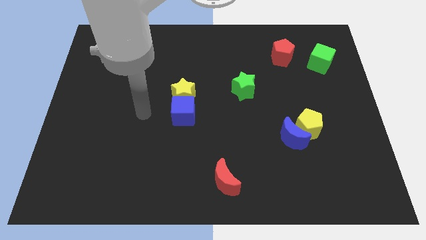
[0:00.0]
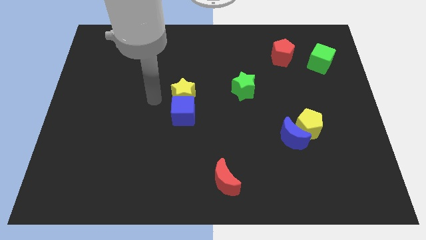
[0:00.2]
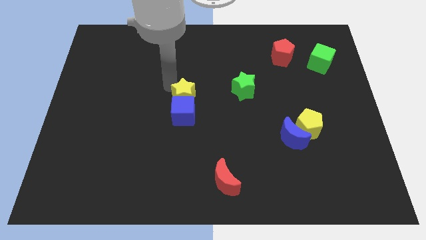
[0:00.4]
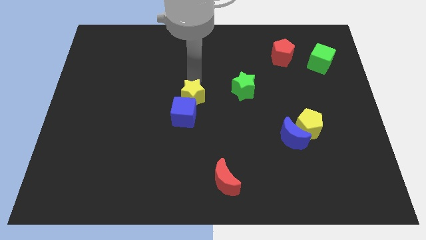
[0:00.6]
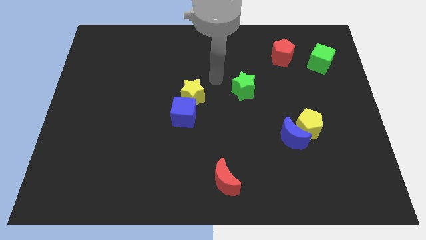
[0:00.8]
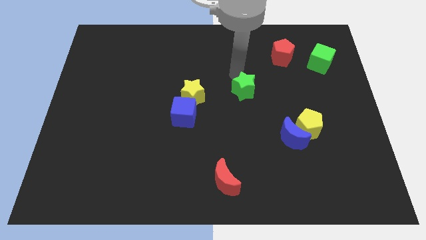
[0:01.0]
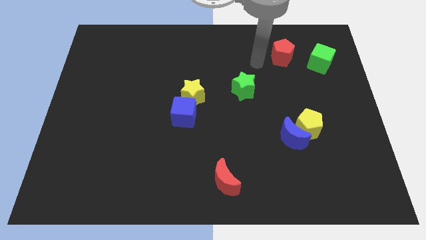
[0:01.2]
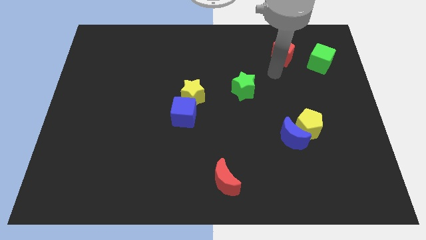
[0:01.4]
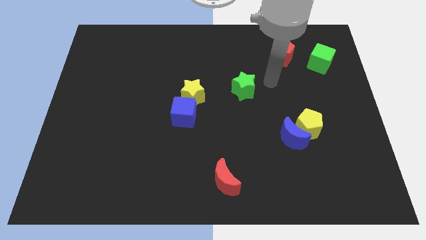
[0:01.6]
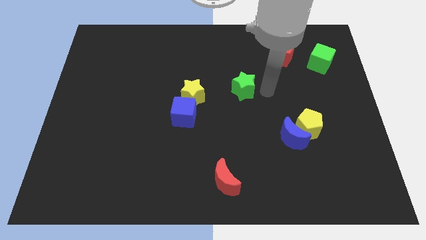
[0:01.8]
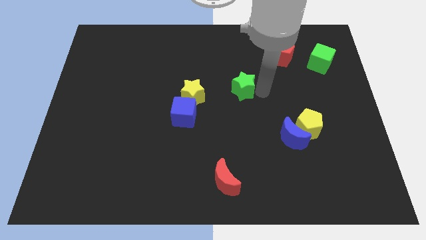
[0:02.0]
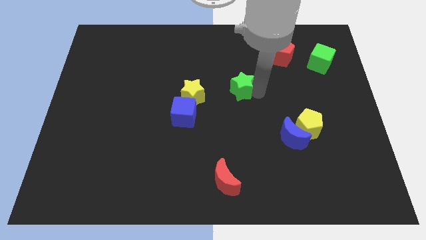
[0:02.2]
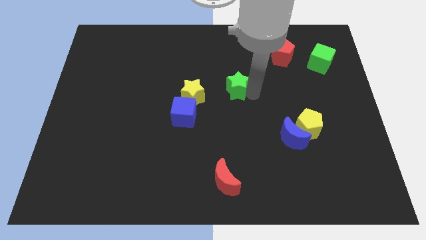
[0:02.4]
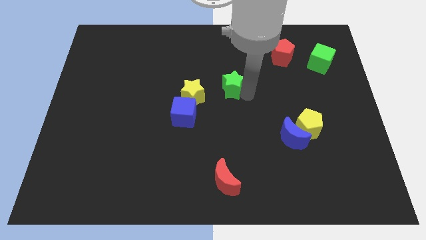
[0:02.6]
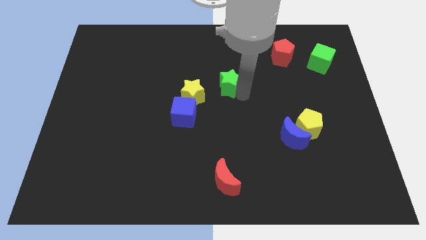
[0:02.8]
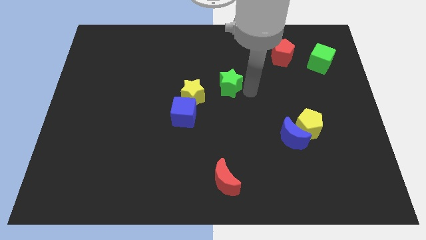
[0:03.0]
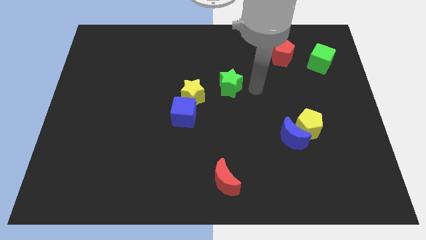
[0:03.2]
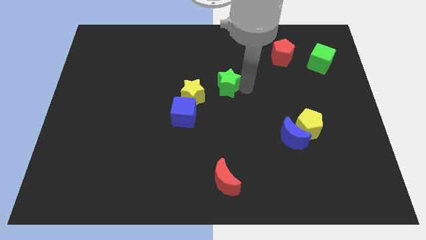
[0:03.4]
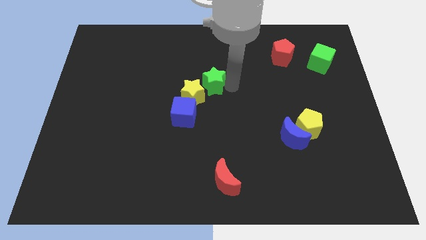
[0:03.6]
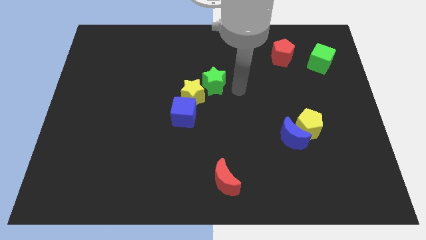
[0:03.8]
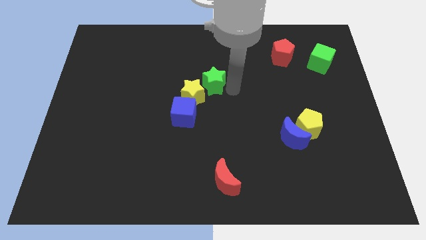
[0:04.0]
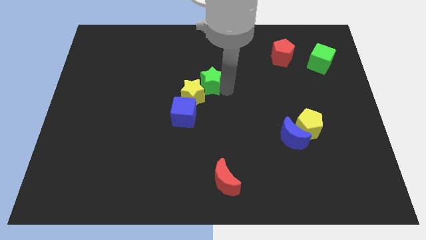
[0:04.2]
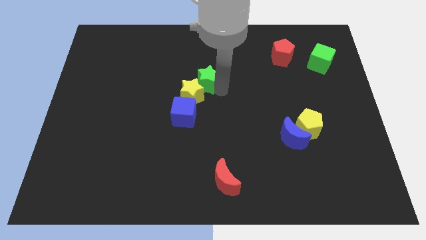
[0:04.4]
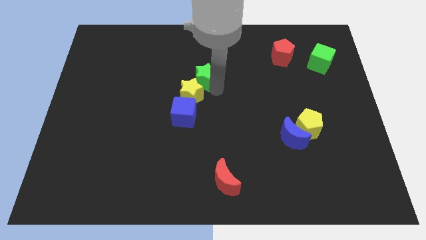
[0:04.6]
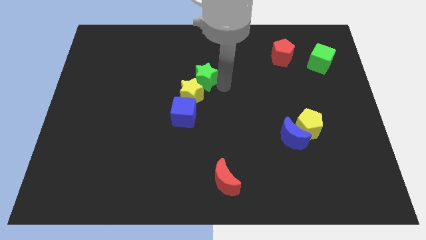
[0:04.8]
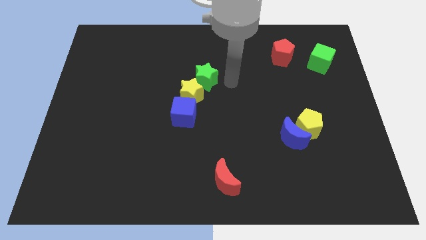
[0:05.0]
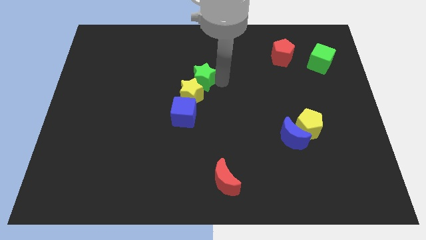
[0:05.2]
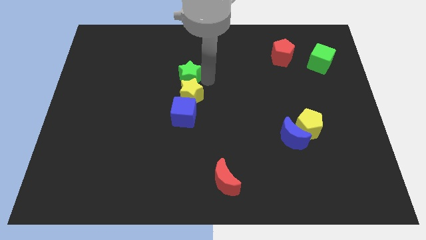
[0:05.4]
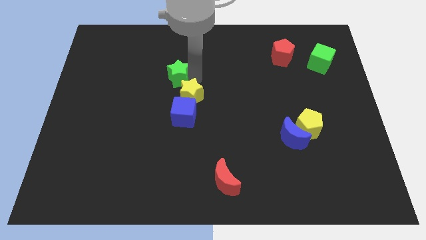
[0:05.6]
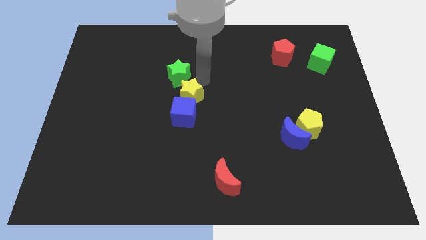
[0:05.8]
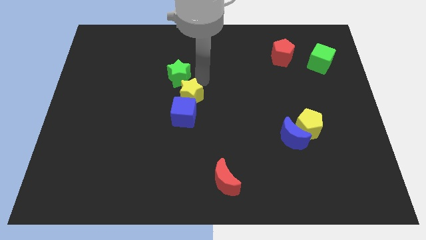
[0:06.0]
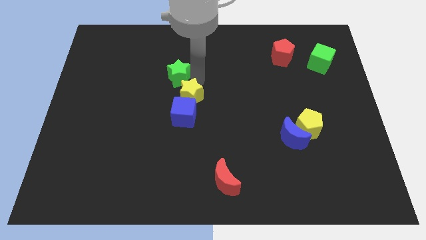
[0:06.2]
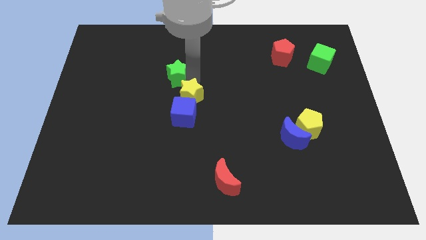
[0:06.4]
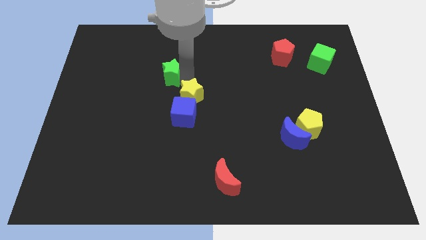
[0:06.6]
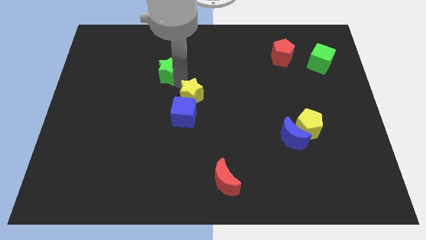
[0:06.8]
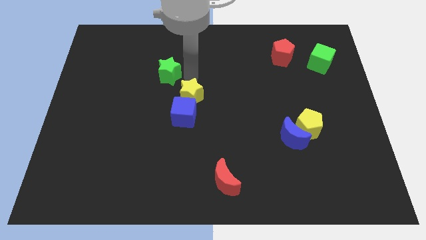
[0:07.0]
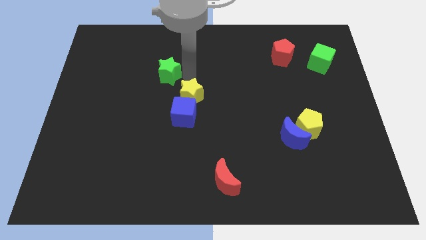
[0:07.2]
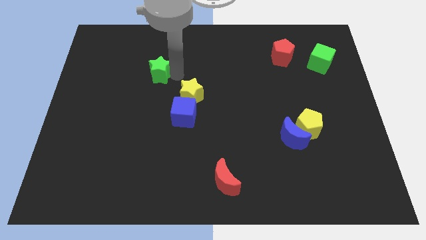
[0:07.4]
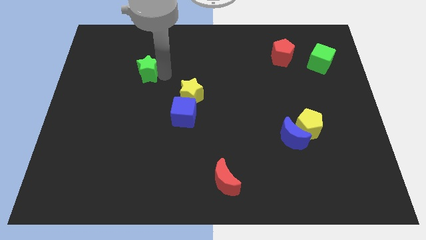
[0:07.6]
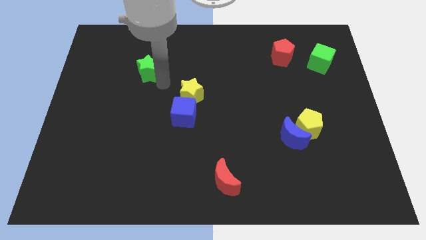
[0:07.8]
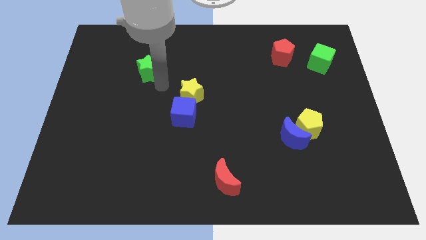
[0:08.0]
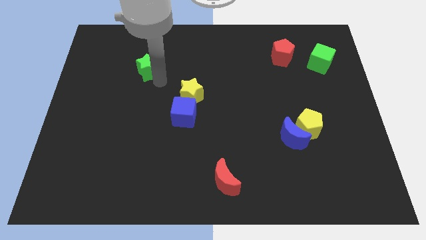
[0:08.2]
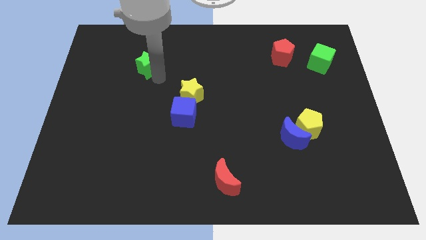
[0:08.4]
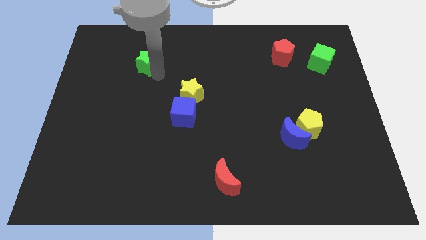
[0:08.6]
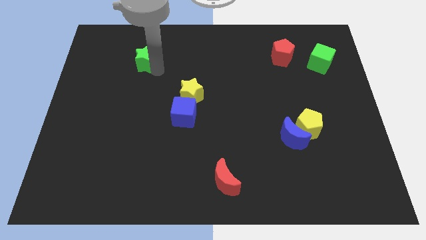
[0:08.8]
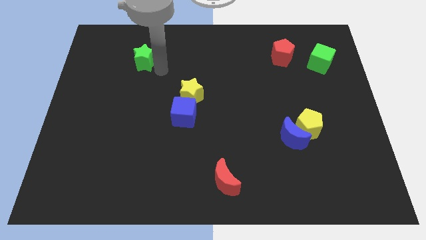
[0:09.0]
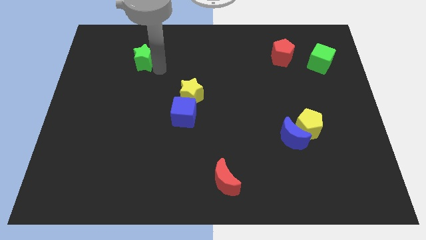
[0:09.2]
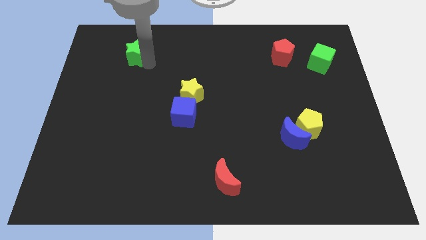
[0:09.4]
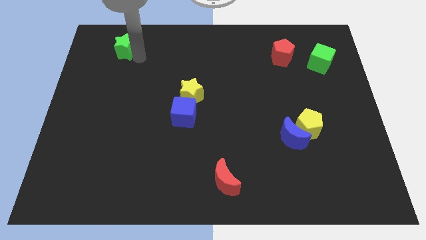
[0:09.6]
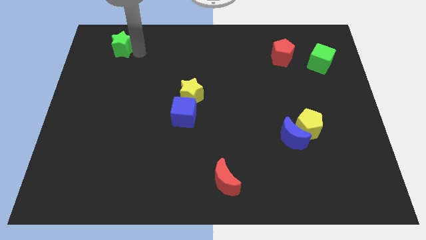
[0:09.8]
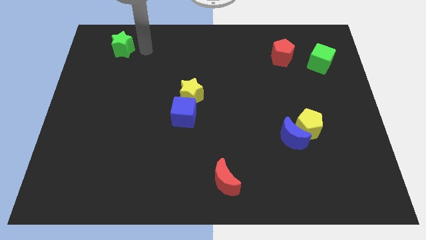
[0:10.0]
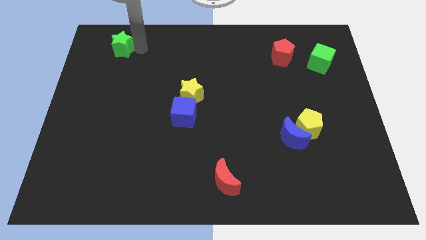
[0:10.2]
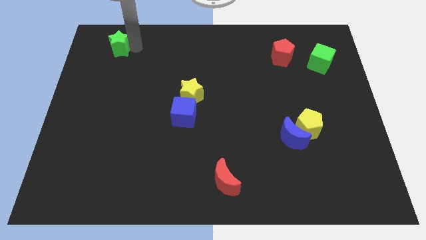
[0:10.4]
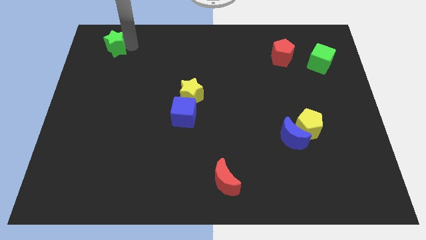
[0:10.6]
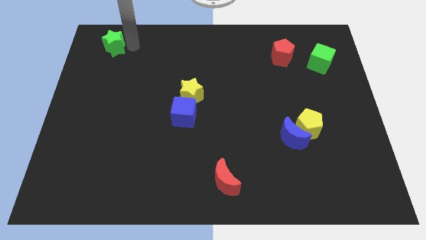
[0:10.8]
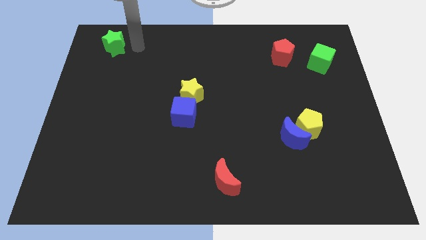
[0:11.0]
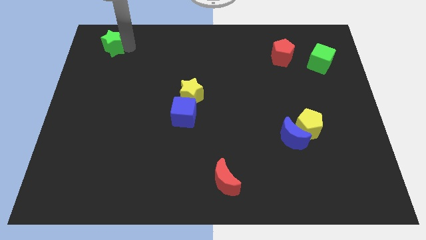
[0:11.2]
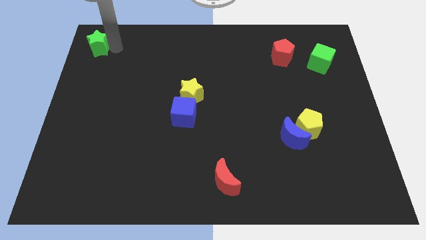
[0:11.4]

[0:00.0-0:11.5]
slide the green star to the top left of the board

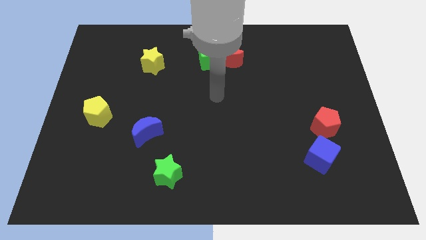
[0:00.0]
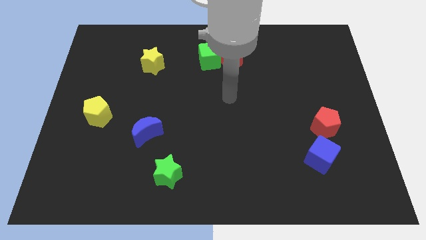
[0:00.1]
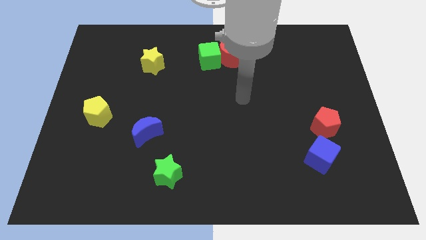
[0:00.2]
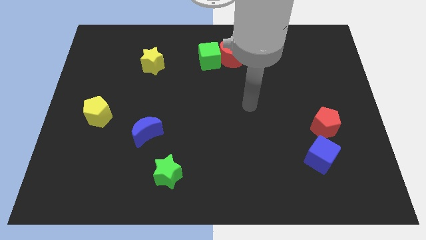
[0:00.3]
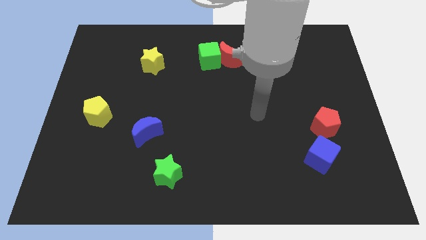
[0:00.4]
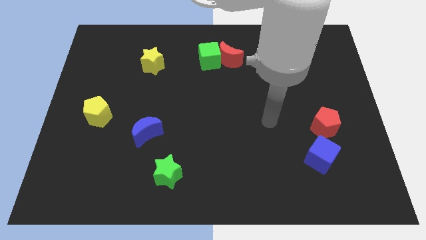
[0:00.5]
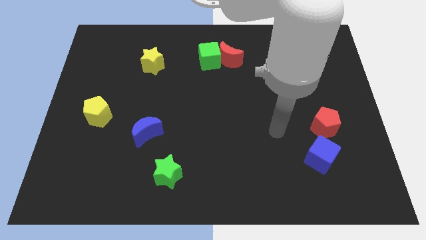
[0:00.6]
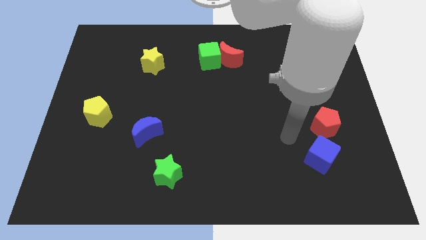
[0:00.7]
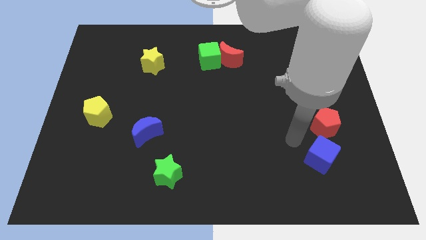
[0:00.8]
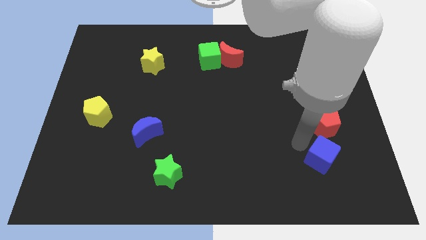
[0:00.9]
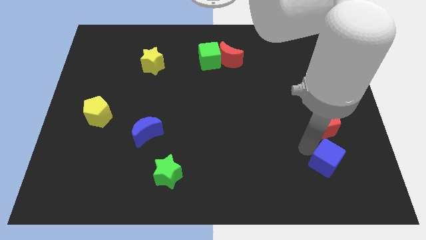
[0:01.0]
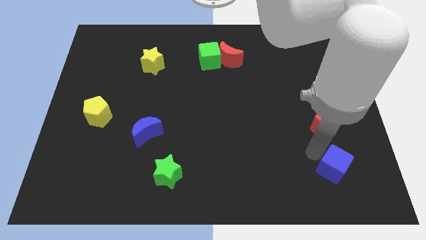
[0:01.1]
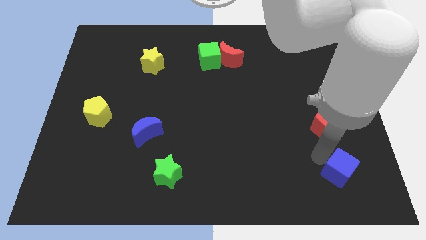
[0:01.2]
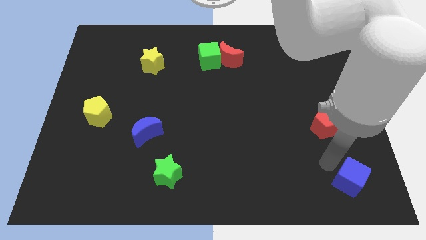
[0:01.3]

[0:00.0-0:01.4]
slide the blue cube to the bottom right
